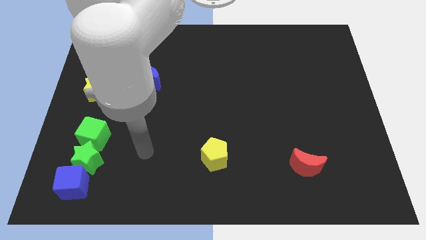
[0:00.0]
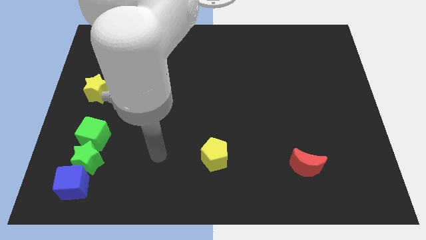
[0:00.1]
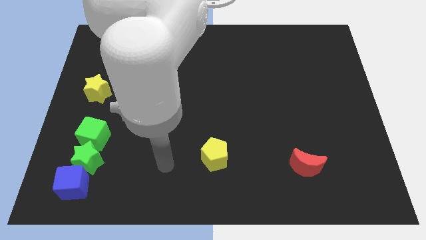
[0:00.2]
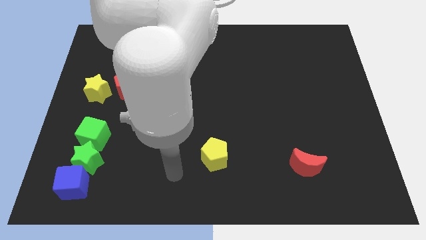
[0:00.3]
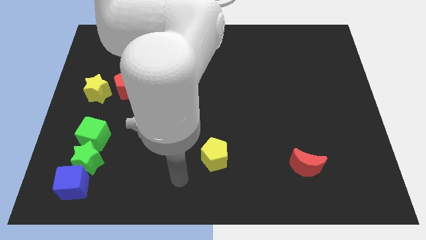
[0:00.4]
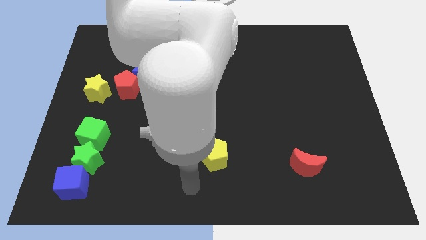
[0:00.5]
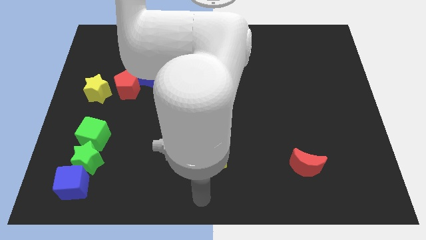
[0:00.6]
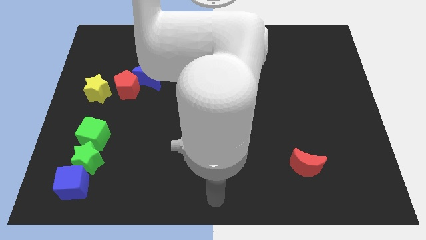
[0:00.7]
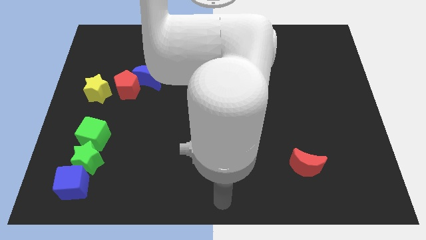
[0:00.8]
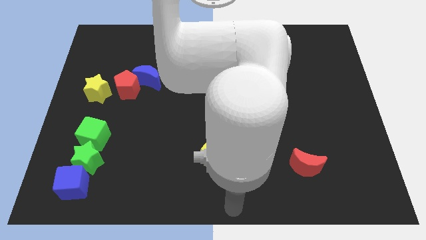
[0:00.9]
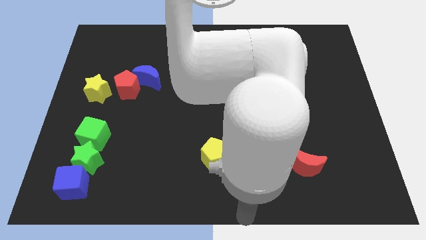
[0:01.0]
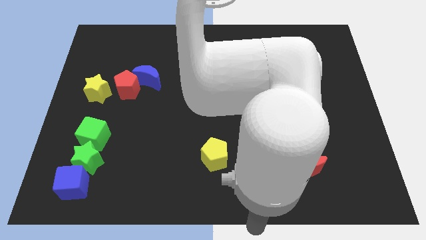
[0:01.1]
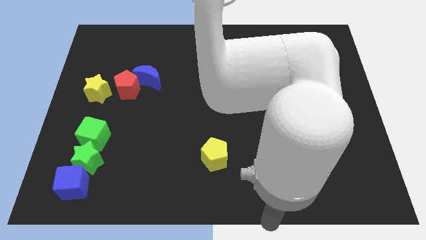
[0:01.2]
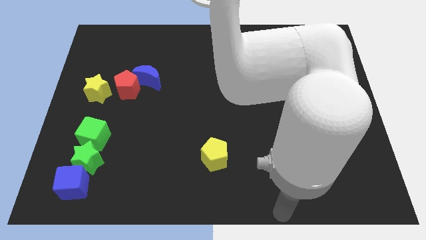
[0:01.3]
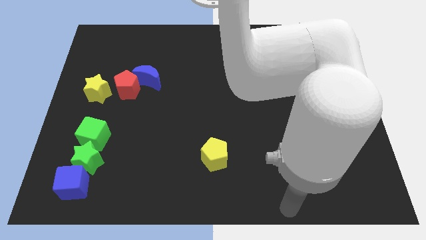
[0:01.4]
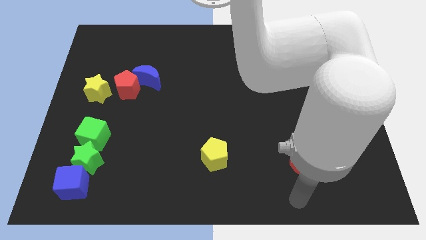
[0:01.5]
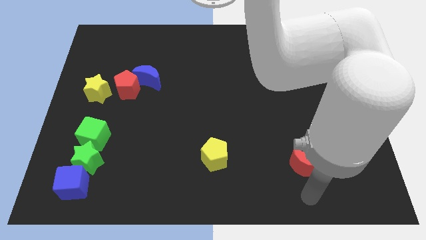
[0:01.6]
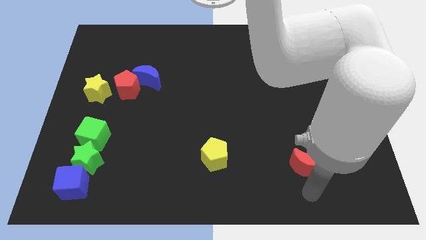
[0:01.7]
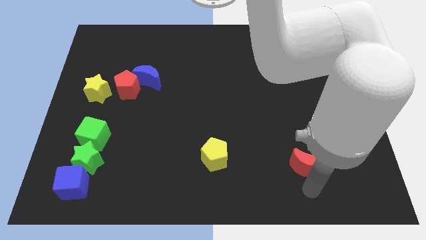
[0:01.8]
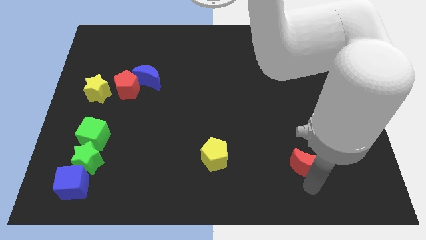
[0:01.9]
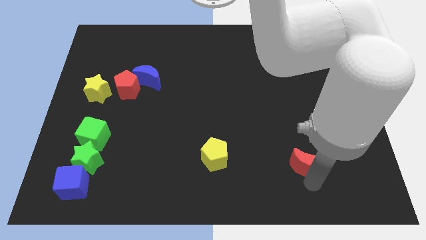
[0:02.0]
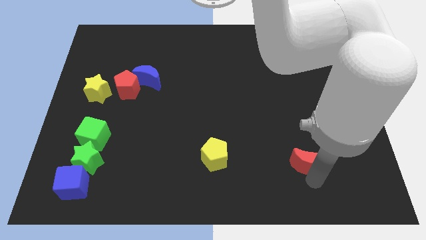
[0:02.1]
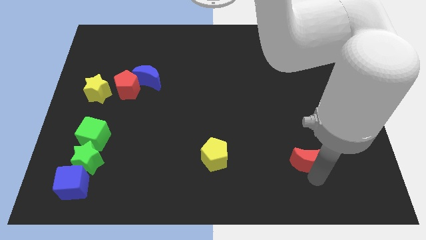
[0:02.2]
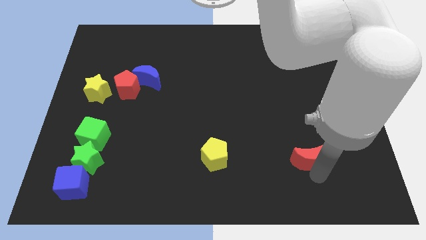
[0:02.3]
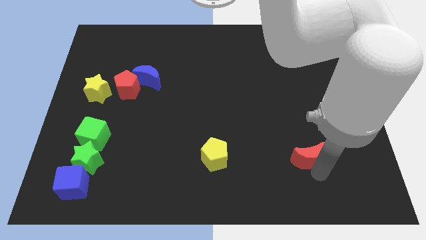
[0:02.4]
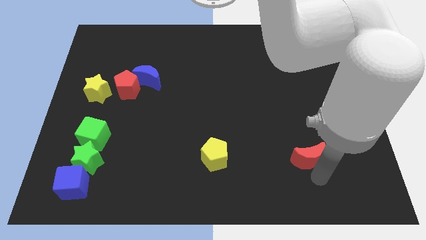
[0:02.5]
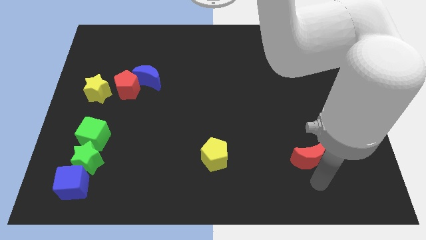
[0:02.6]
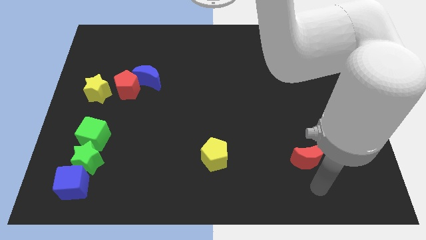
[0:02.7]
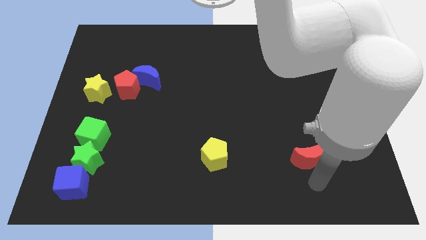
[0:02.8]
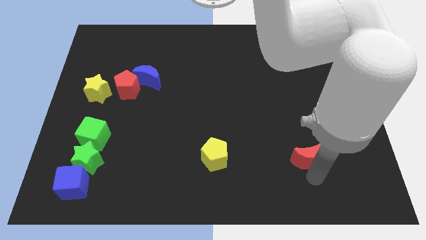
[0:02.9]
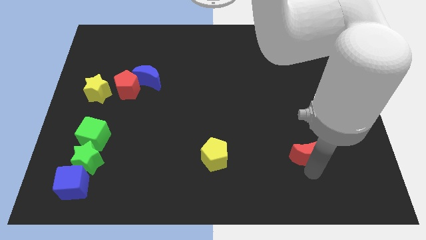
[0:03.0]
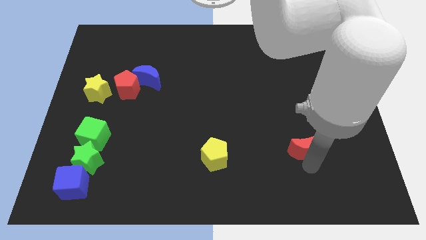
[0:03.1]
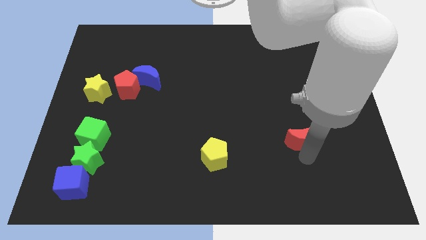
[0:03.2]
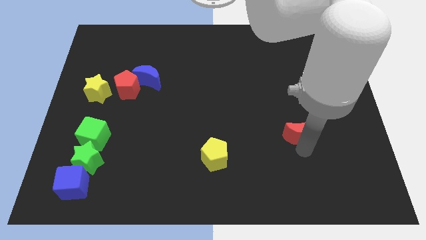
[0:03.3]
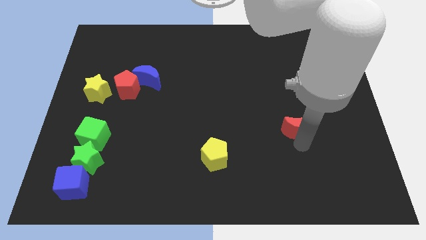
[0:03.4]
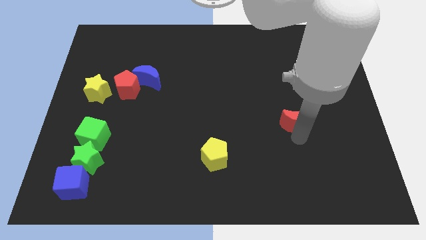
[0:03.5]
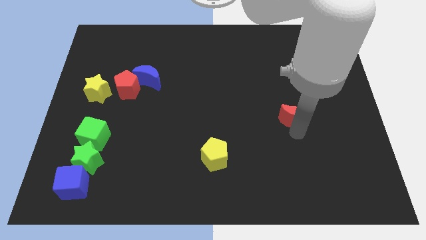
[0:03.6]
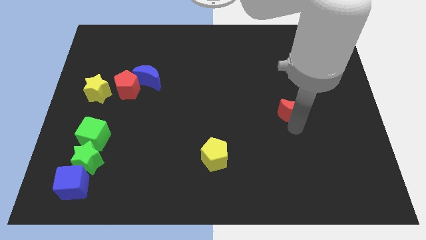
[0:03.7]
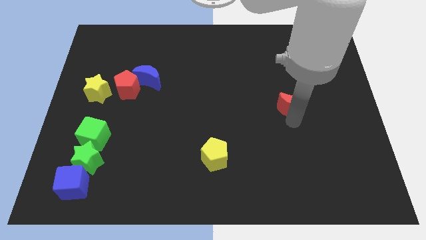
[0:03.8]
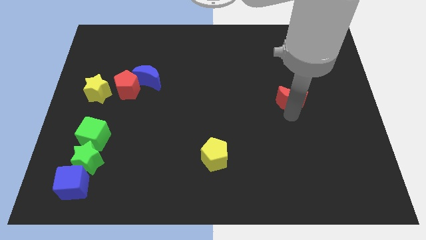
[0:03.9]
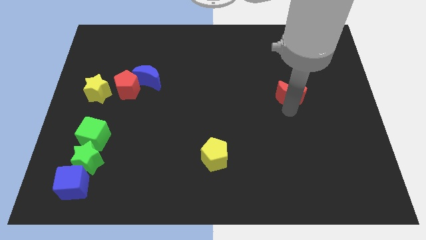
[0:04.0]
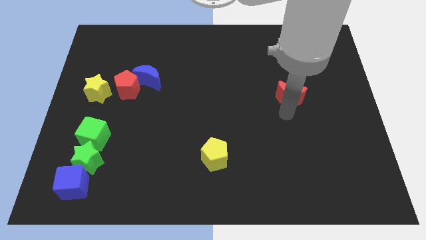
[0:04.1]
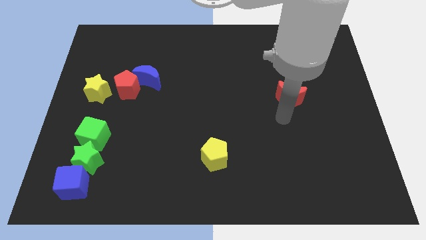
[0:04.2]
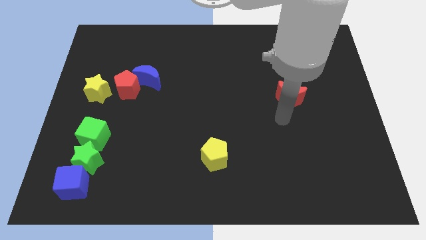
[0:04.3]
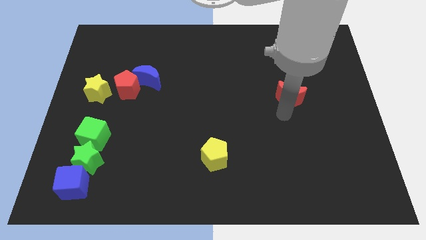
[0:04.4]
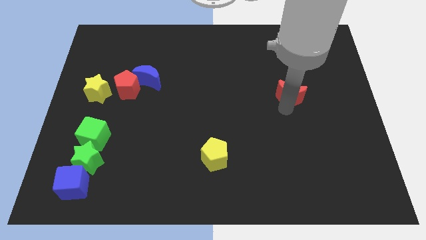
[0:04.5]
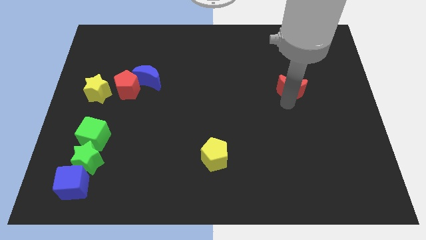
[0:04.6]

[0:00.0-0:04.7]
move the red moon upwards

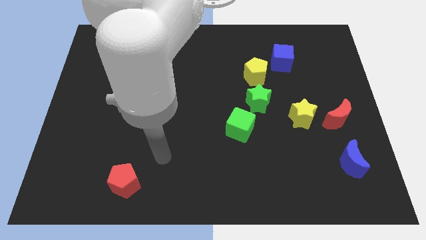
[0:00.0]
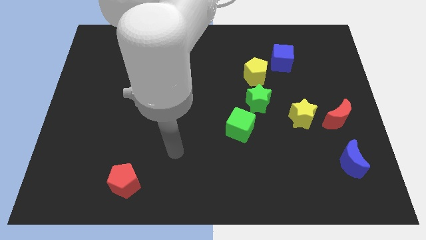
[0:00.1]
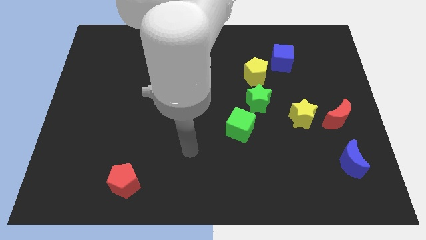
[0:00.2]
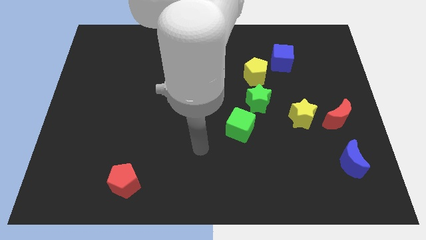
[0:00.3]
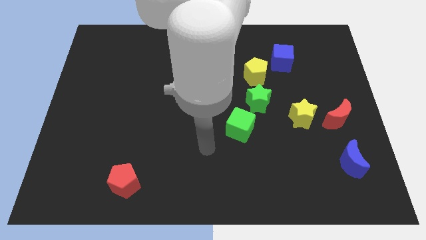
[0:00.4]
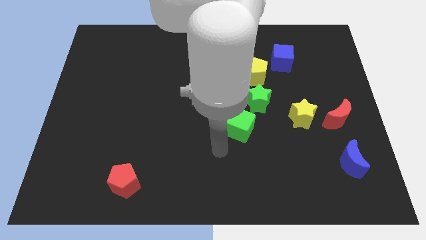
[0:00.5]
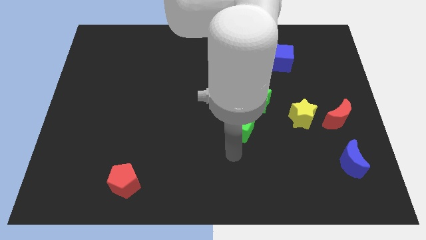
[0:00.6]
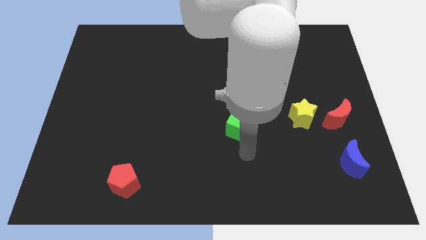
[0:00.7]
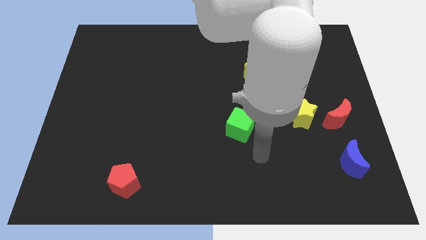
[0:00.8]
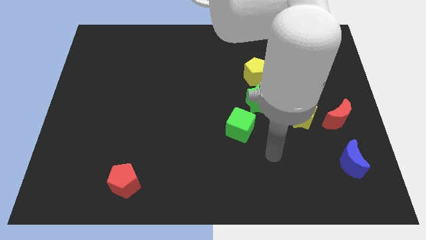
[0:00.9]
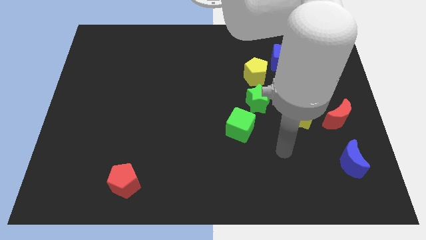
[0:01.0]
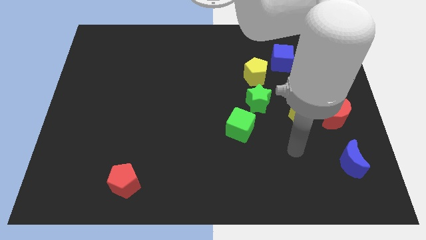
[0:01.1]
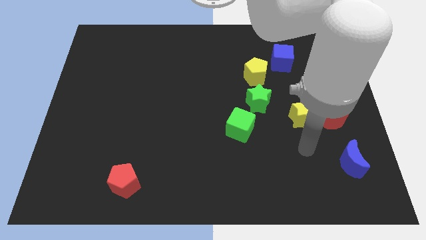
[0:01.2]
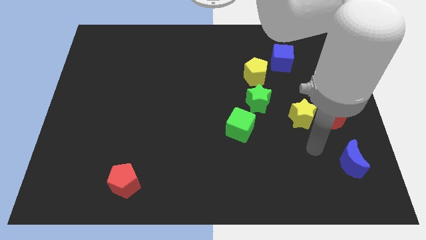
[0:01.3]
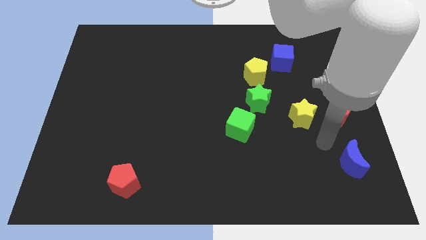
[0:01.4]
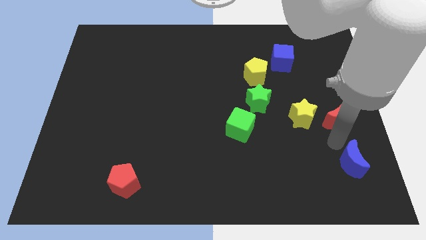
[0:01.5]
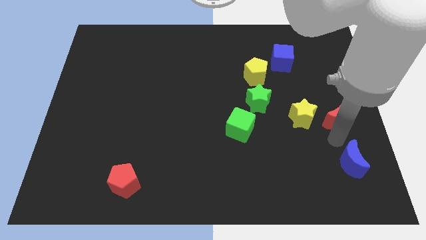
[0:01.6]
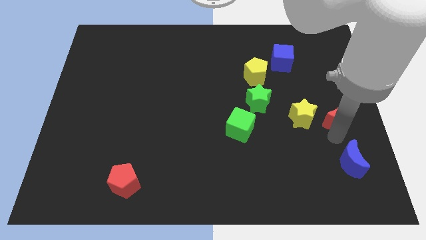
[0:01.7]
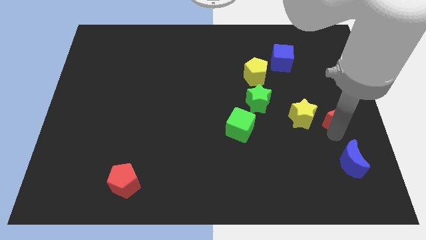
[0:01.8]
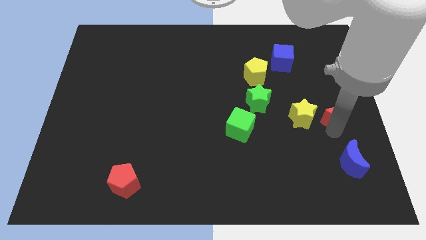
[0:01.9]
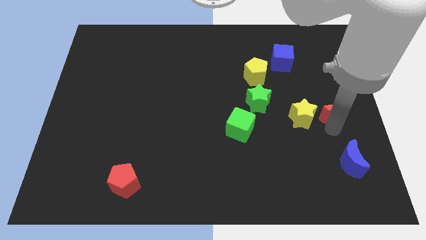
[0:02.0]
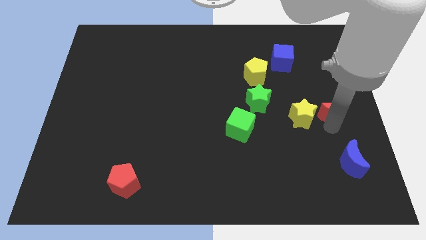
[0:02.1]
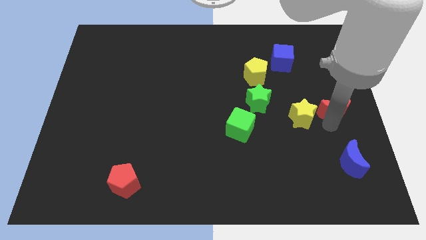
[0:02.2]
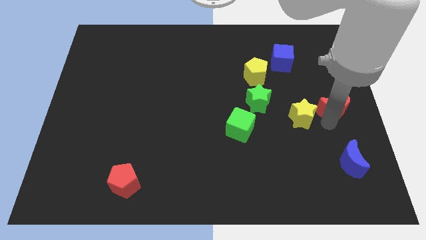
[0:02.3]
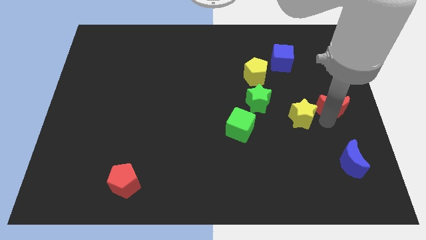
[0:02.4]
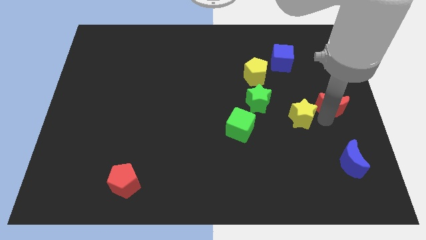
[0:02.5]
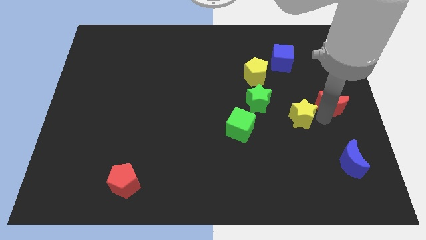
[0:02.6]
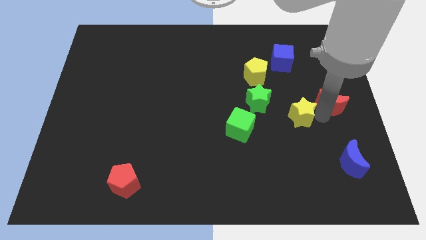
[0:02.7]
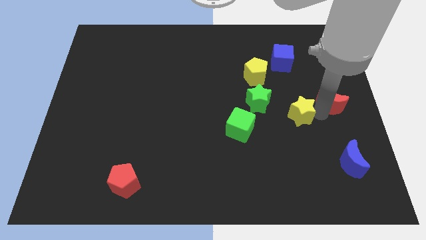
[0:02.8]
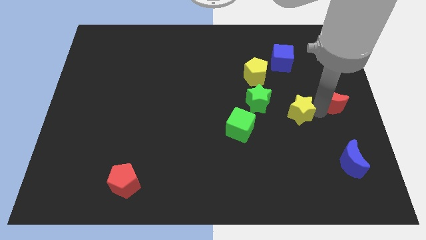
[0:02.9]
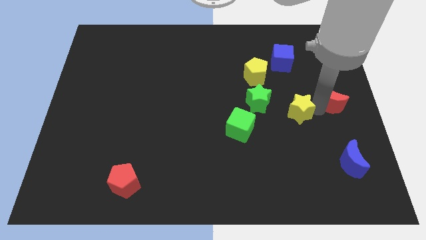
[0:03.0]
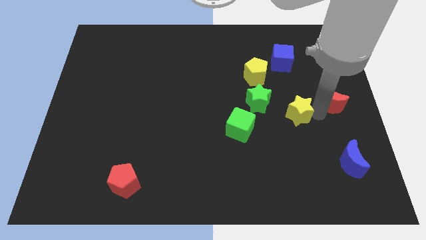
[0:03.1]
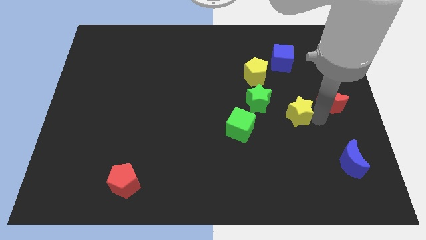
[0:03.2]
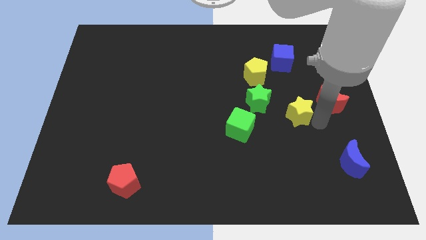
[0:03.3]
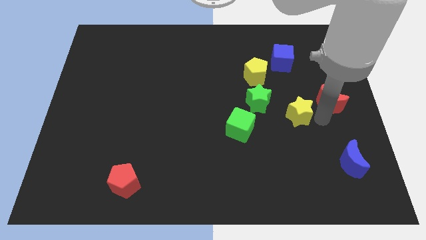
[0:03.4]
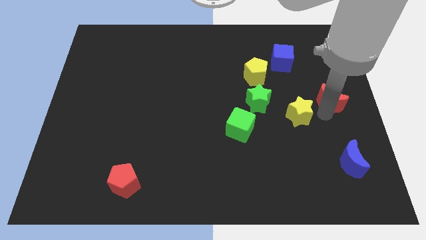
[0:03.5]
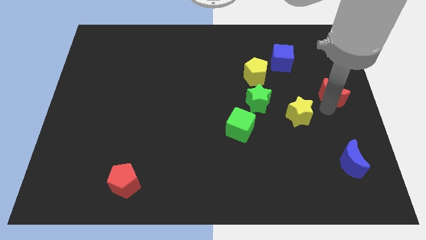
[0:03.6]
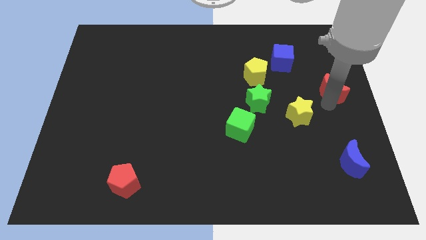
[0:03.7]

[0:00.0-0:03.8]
slide the red moon somewhat upwards
